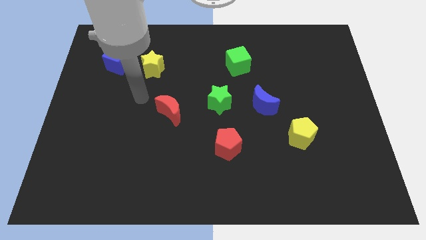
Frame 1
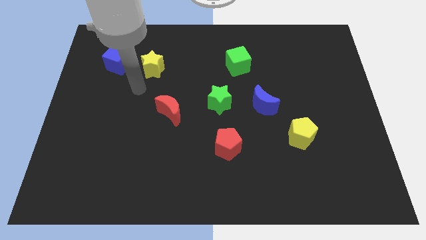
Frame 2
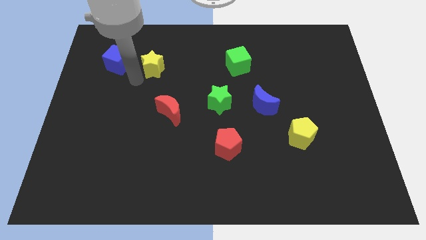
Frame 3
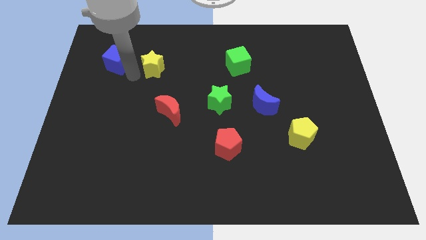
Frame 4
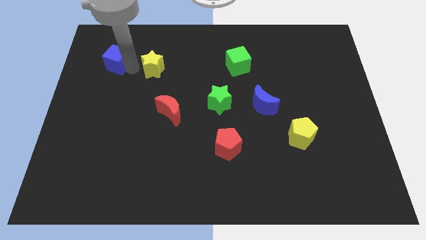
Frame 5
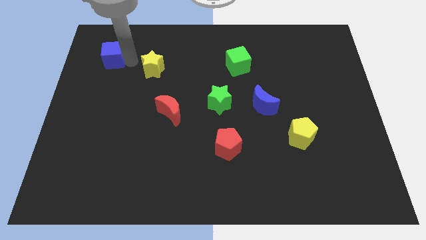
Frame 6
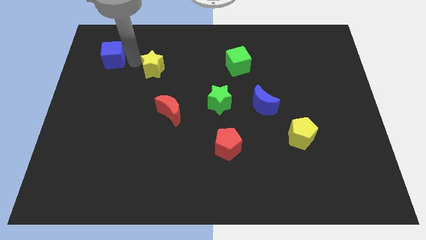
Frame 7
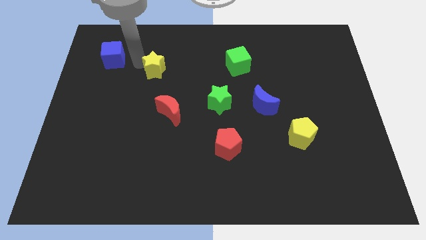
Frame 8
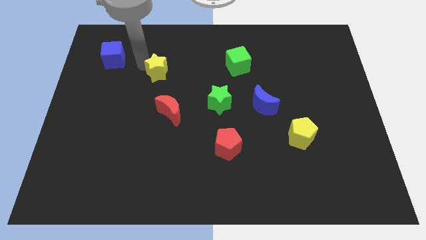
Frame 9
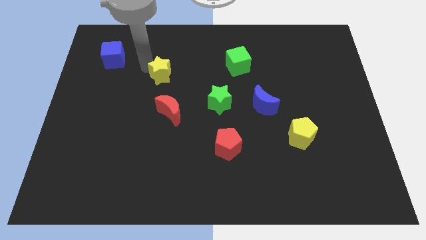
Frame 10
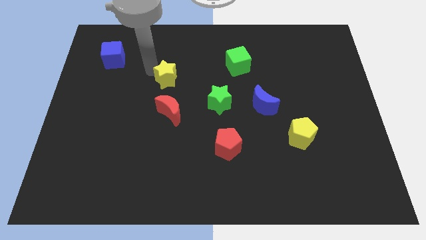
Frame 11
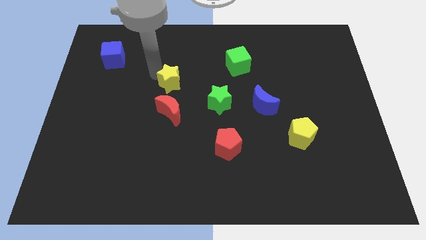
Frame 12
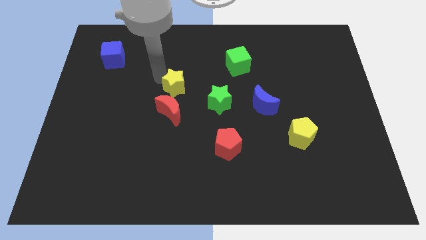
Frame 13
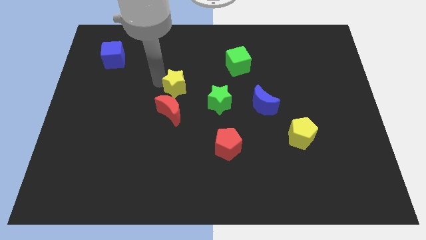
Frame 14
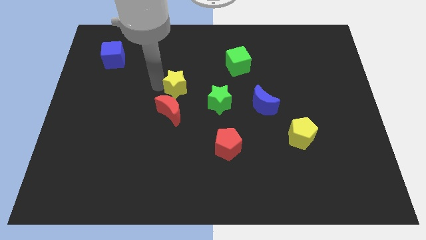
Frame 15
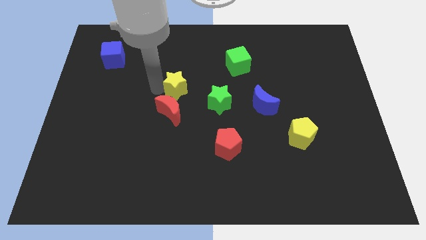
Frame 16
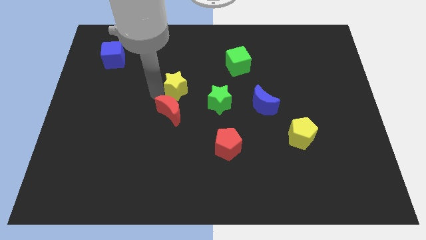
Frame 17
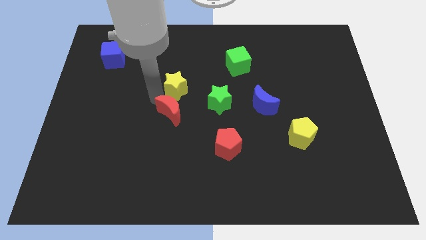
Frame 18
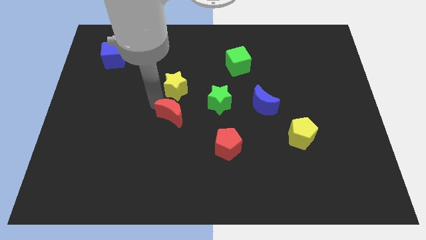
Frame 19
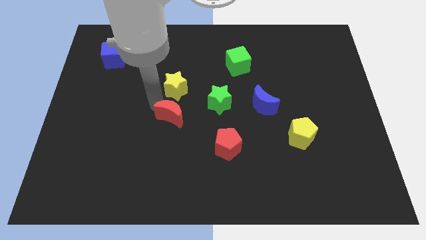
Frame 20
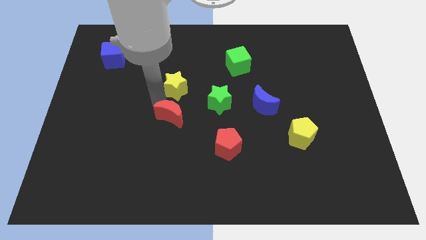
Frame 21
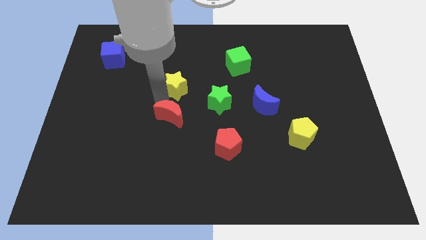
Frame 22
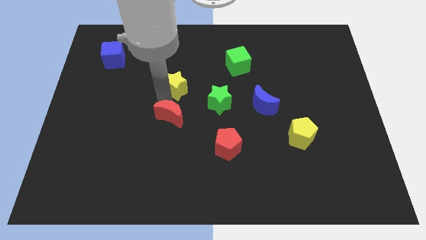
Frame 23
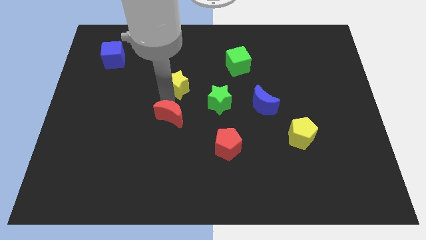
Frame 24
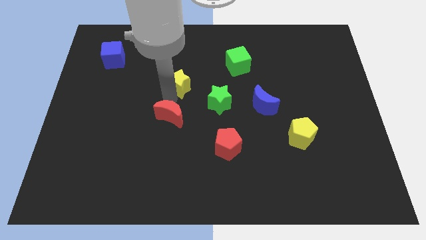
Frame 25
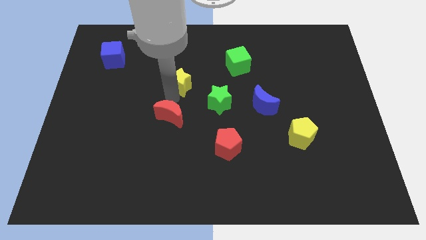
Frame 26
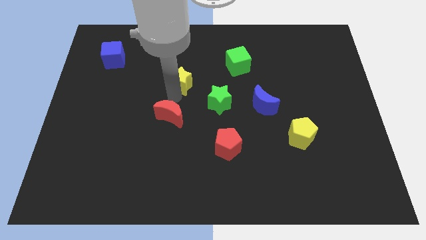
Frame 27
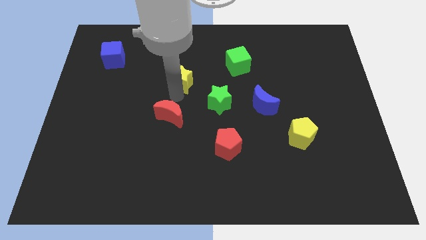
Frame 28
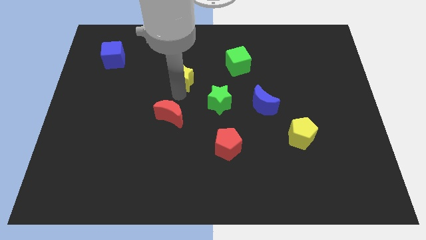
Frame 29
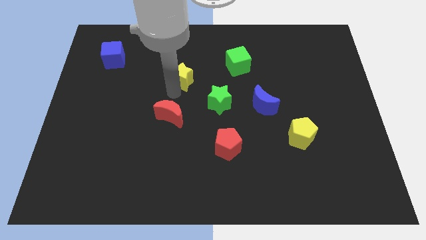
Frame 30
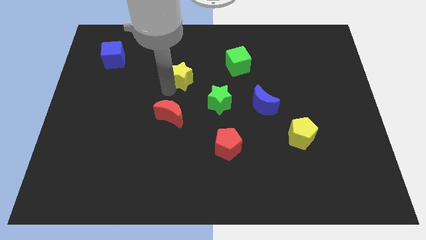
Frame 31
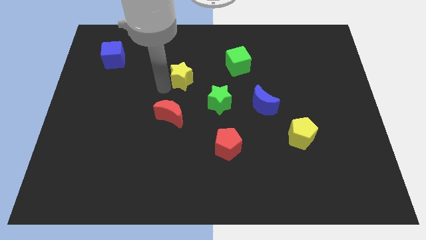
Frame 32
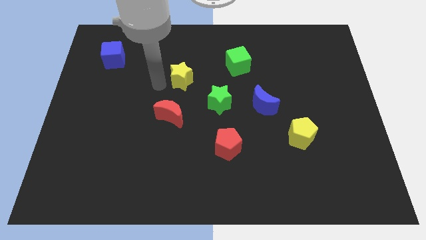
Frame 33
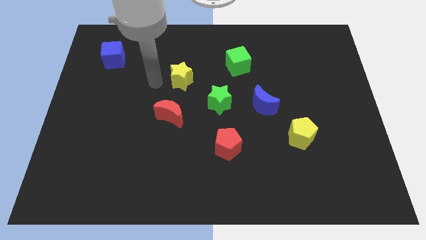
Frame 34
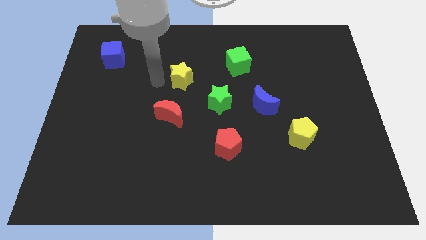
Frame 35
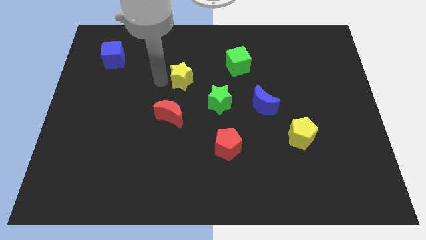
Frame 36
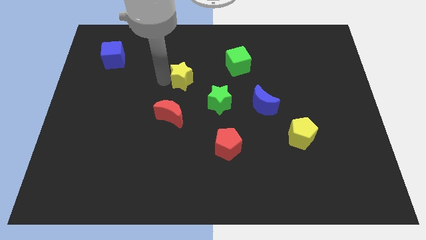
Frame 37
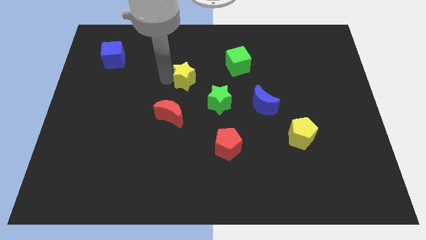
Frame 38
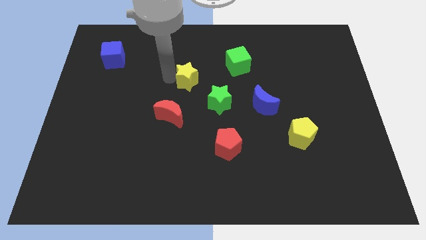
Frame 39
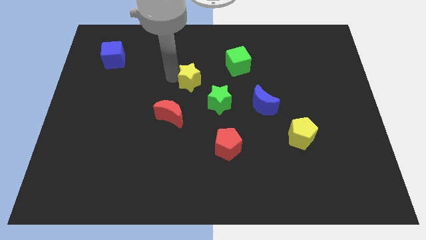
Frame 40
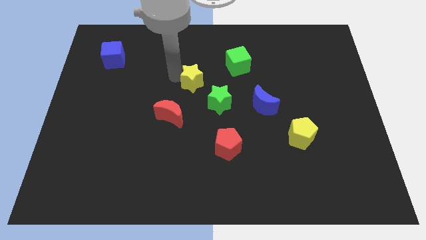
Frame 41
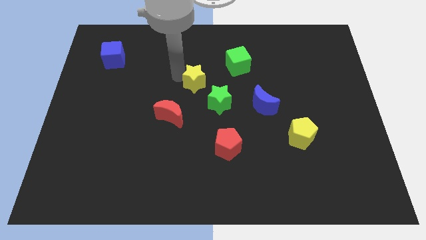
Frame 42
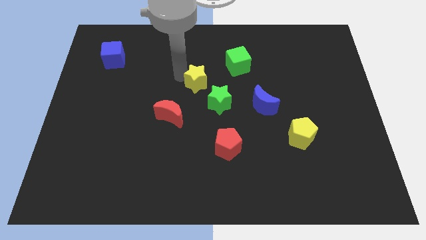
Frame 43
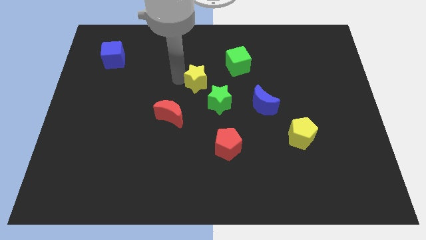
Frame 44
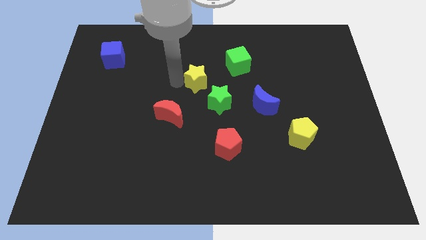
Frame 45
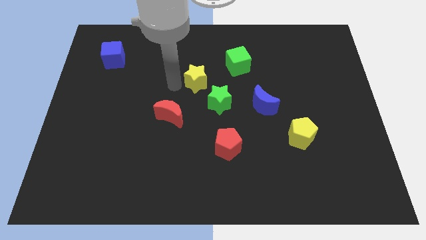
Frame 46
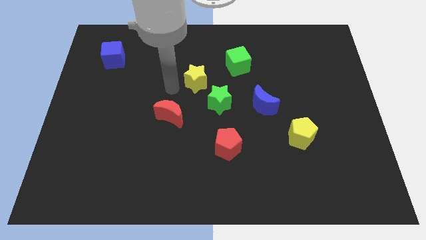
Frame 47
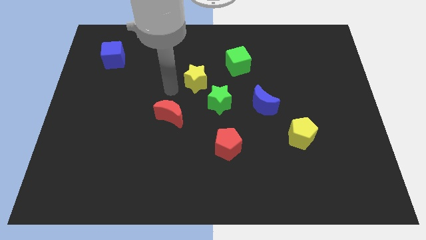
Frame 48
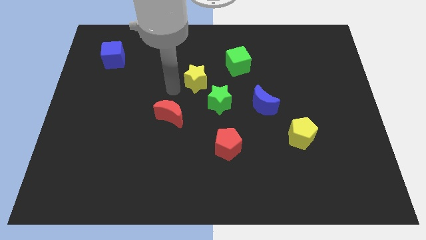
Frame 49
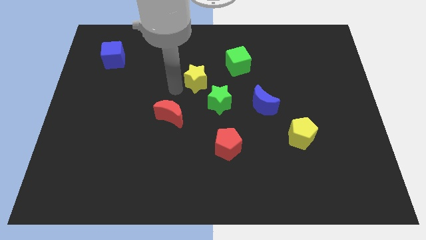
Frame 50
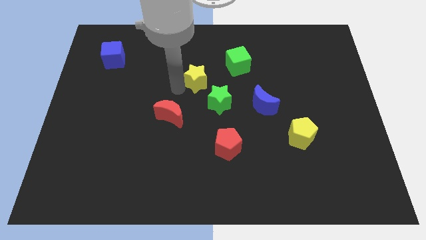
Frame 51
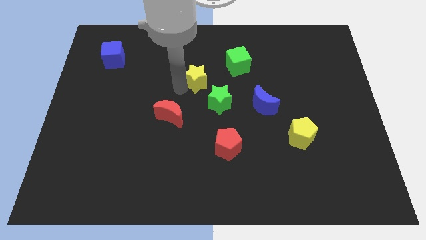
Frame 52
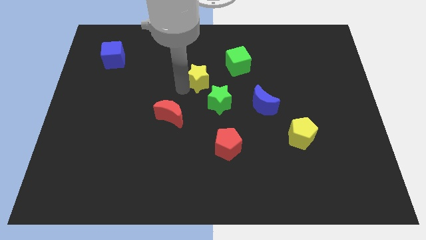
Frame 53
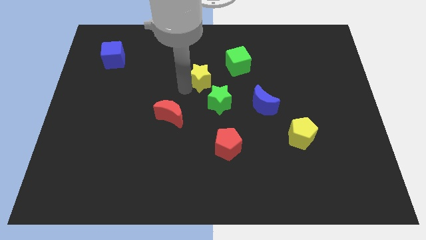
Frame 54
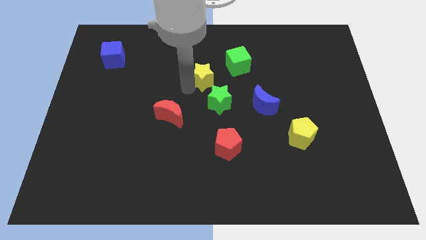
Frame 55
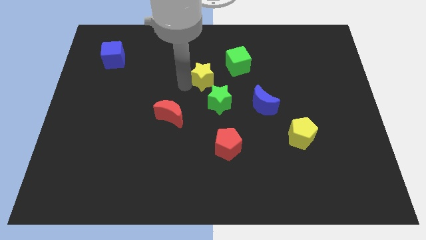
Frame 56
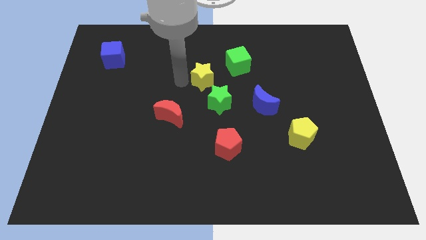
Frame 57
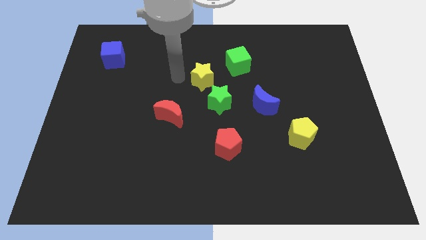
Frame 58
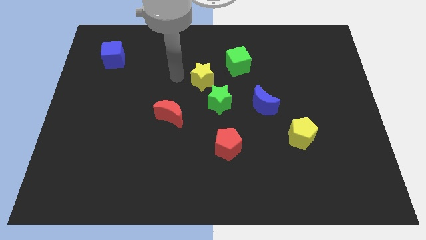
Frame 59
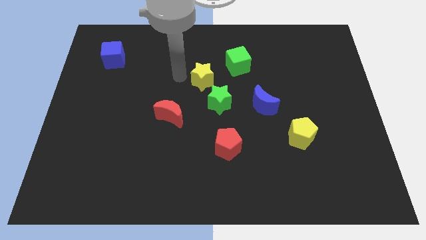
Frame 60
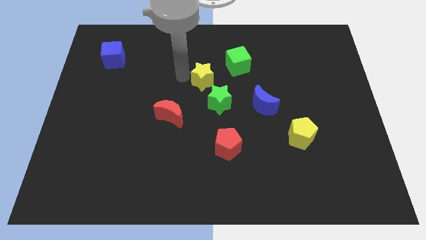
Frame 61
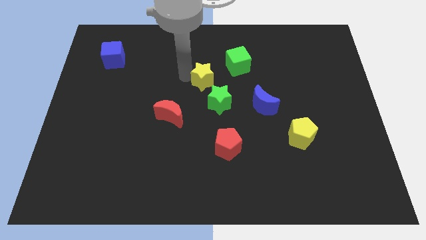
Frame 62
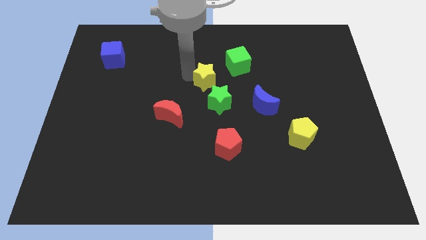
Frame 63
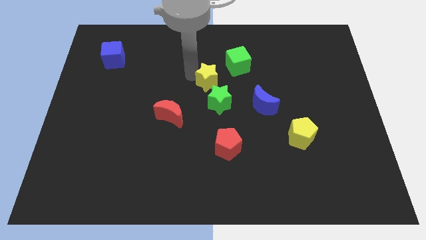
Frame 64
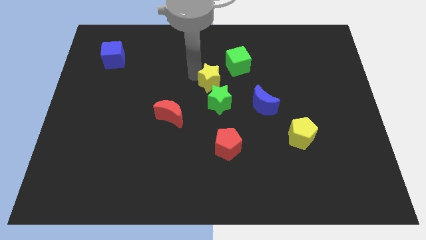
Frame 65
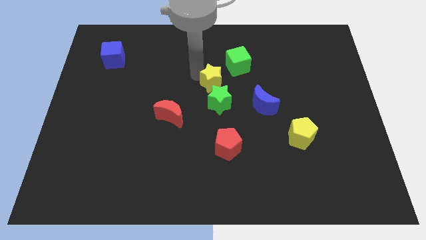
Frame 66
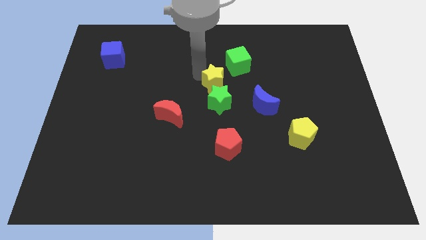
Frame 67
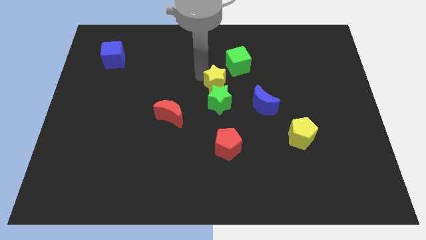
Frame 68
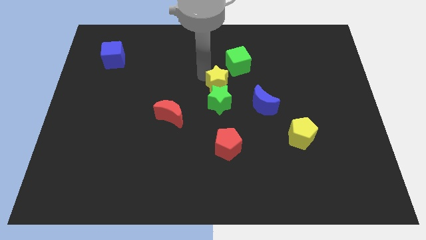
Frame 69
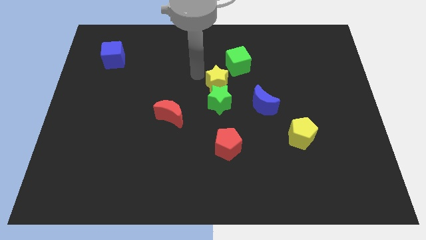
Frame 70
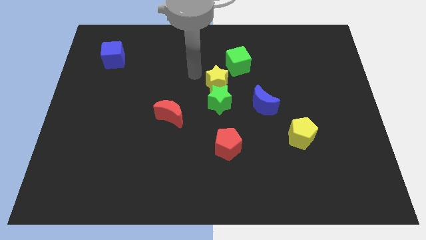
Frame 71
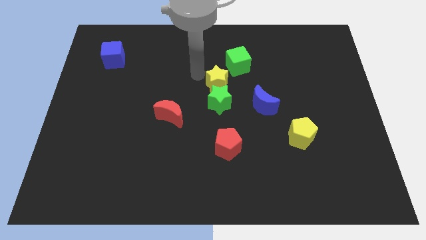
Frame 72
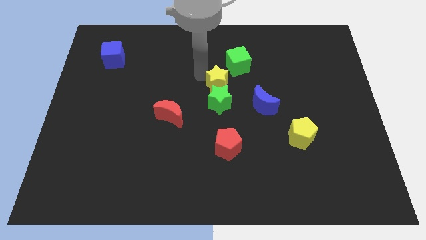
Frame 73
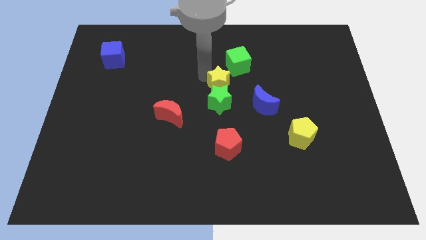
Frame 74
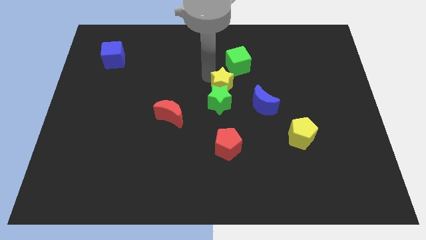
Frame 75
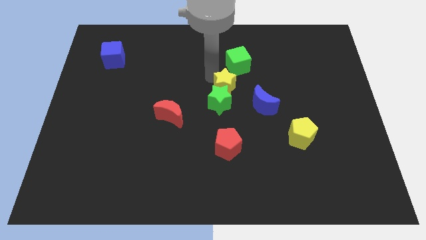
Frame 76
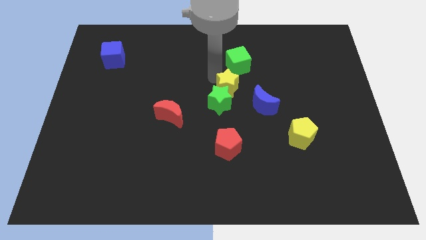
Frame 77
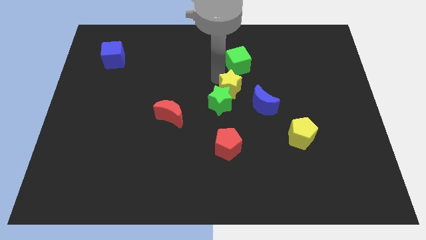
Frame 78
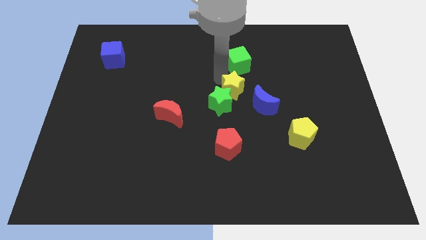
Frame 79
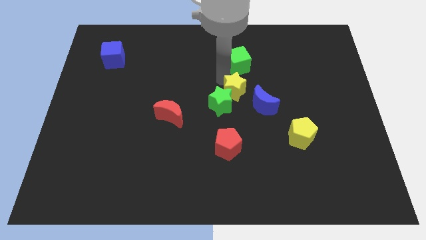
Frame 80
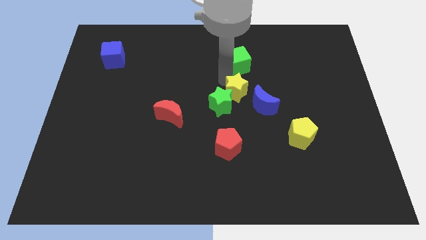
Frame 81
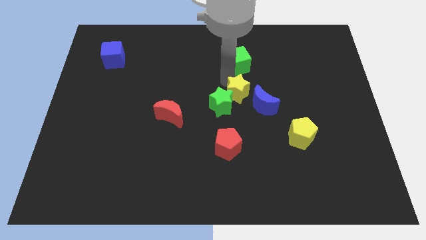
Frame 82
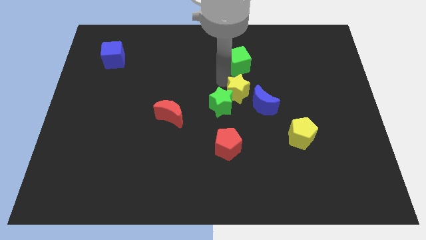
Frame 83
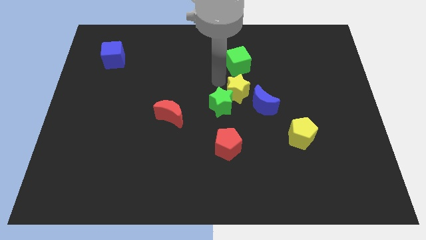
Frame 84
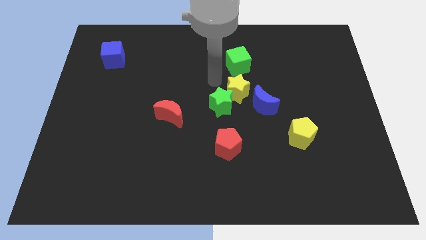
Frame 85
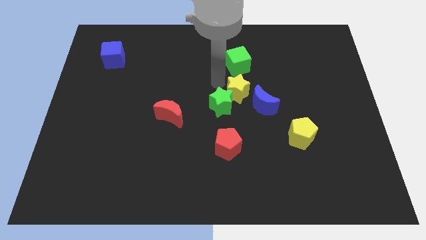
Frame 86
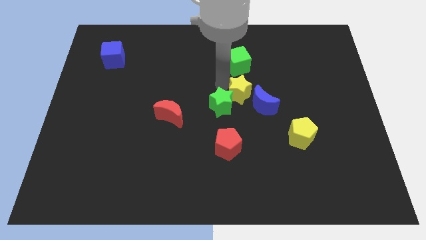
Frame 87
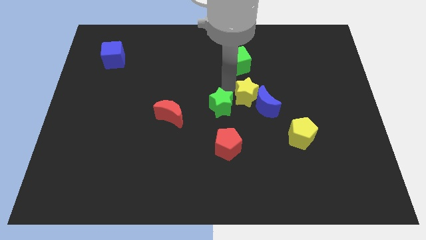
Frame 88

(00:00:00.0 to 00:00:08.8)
move the yellow star next to the blue moon
